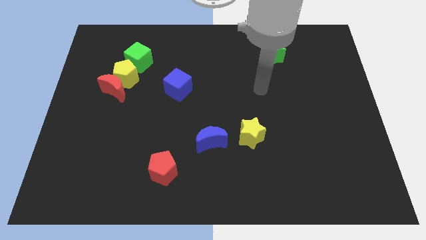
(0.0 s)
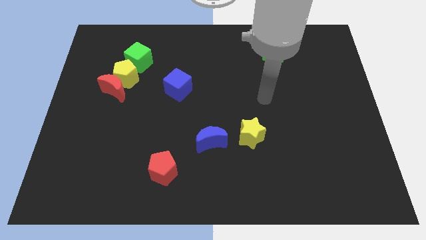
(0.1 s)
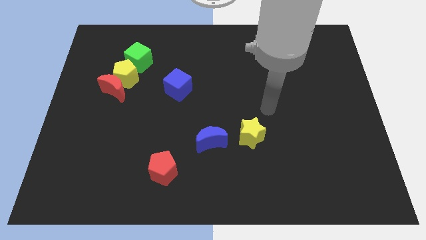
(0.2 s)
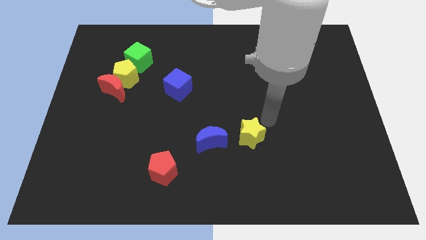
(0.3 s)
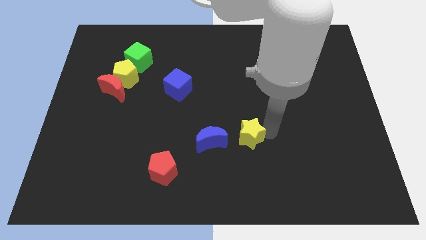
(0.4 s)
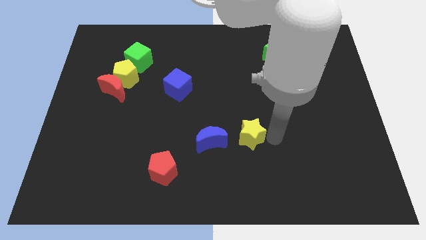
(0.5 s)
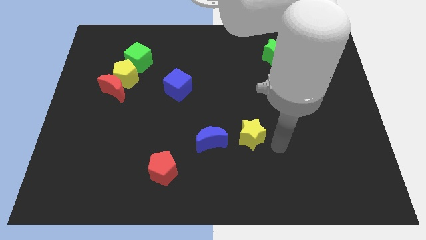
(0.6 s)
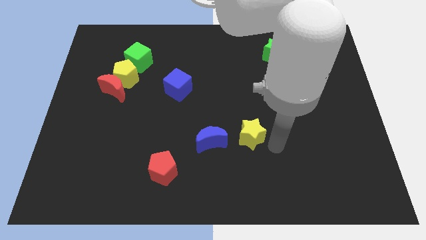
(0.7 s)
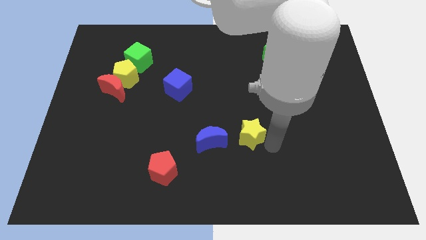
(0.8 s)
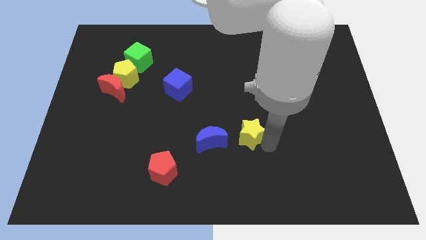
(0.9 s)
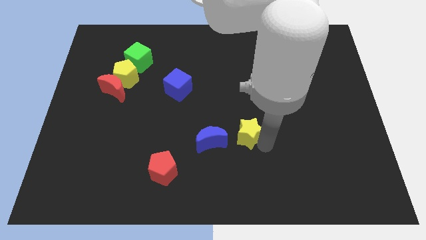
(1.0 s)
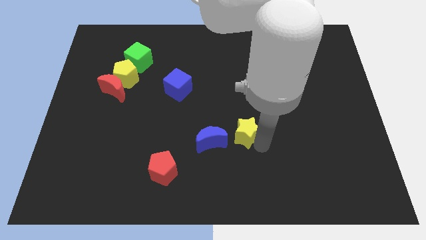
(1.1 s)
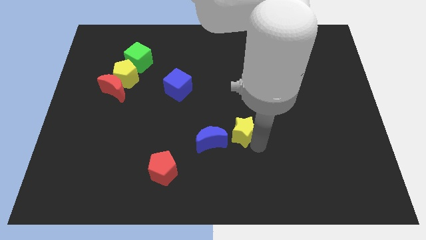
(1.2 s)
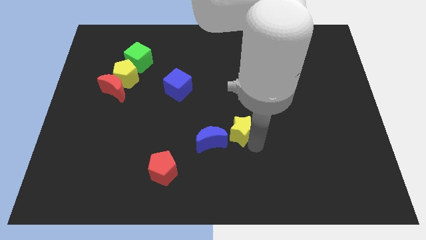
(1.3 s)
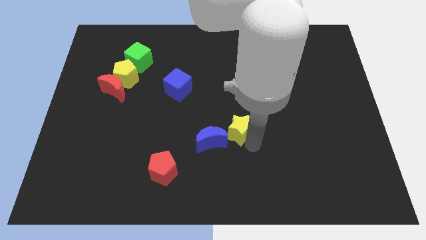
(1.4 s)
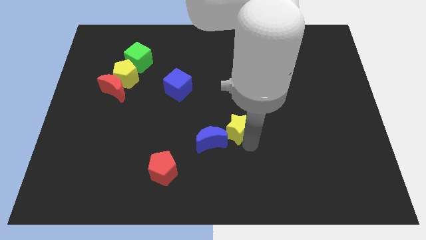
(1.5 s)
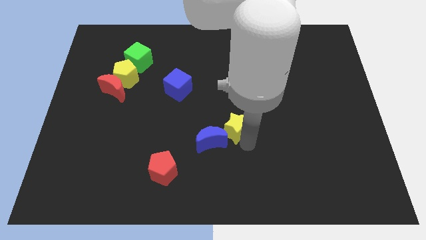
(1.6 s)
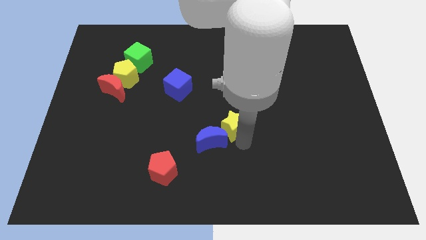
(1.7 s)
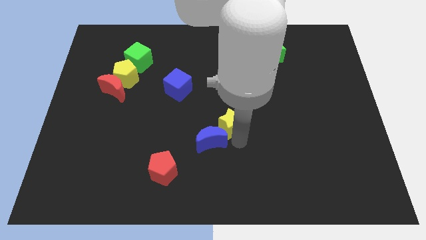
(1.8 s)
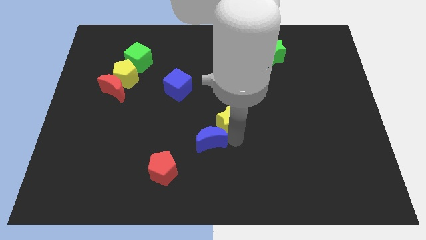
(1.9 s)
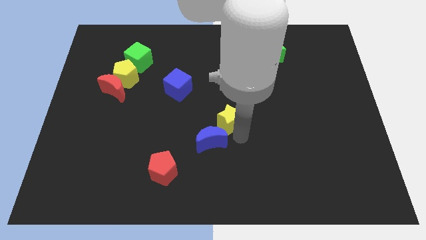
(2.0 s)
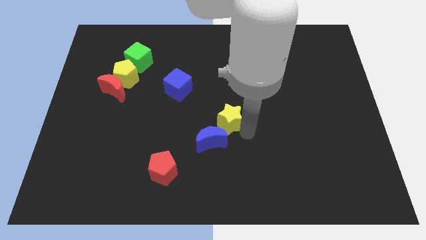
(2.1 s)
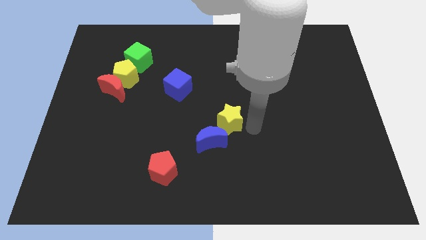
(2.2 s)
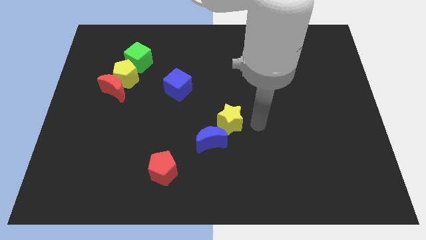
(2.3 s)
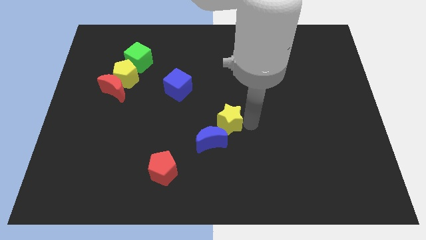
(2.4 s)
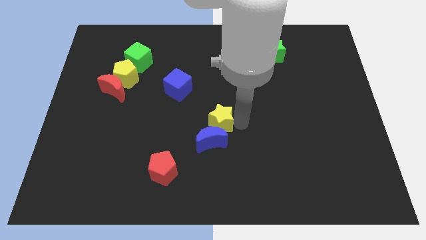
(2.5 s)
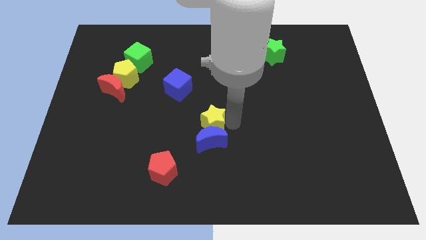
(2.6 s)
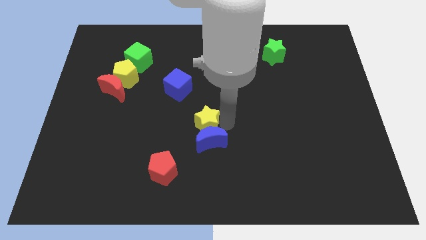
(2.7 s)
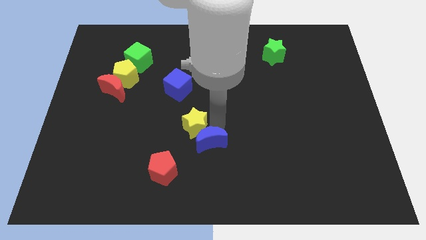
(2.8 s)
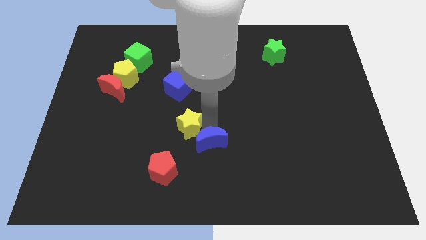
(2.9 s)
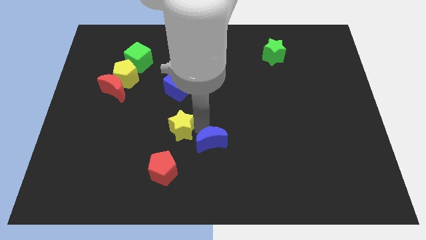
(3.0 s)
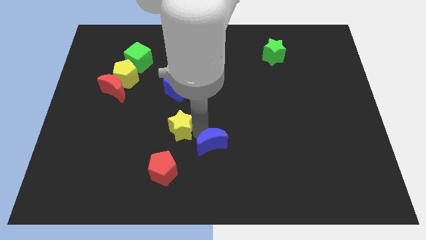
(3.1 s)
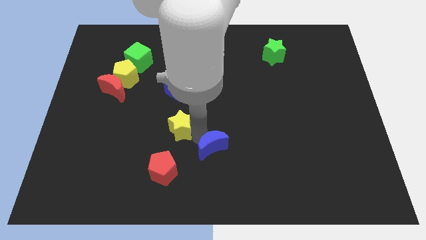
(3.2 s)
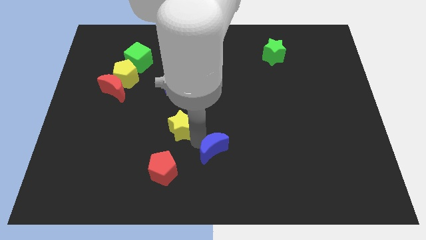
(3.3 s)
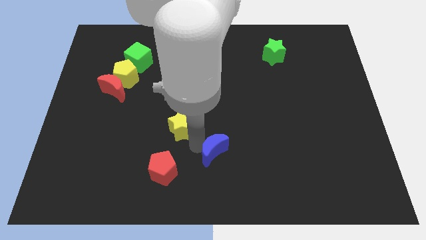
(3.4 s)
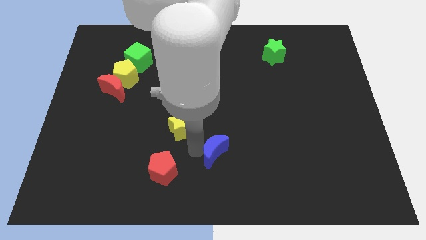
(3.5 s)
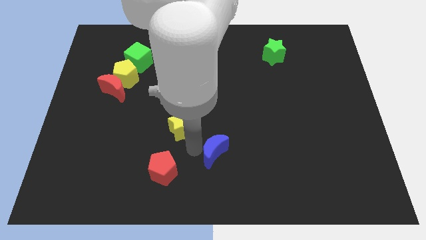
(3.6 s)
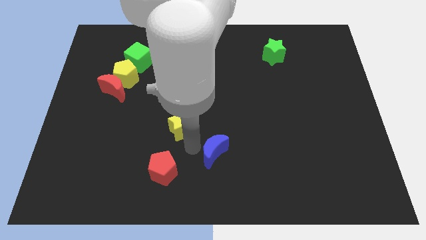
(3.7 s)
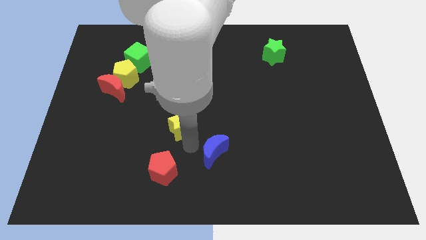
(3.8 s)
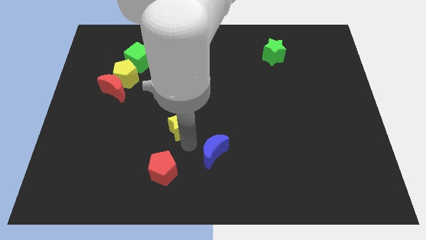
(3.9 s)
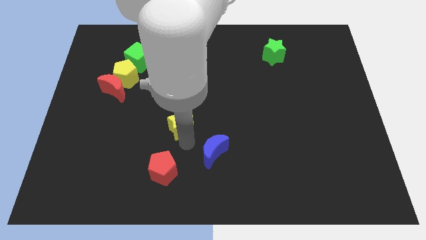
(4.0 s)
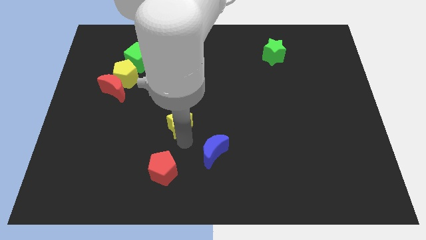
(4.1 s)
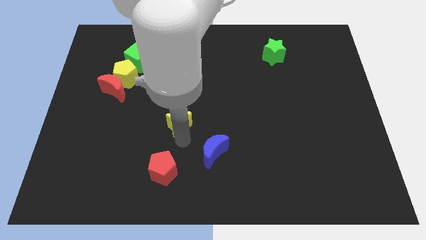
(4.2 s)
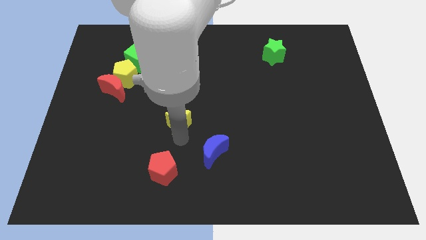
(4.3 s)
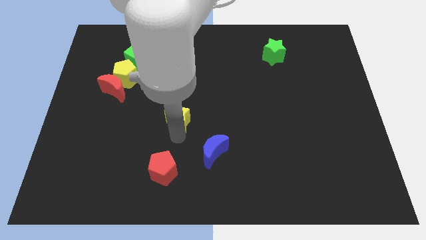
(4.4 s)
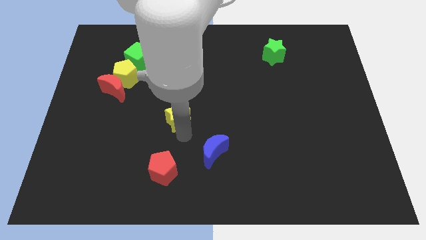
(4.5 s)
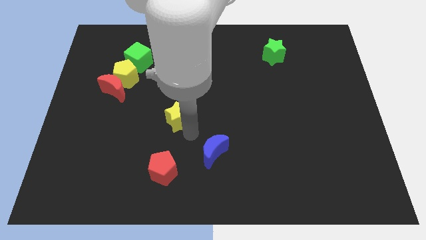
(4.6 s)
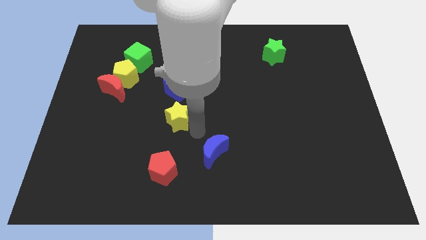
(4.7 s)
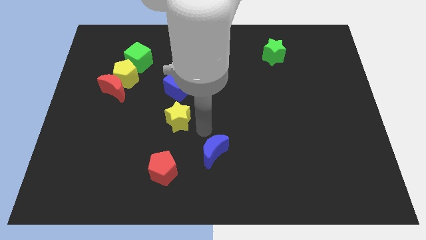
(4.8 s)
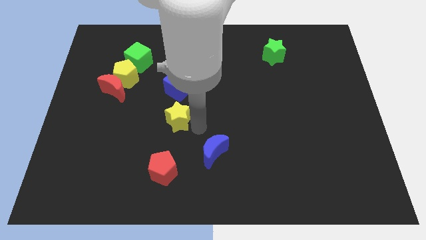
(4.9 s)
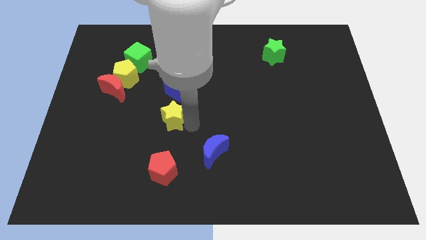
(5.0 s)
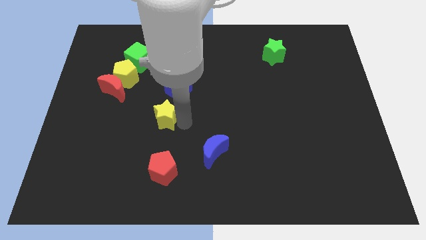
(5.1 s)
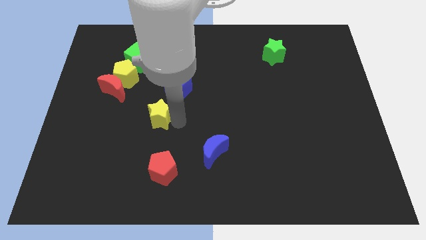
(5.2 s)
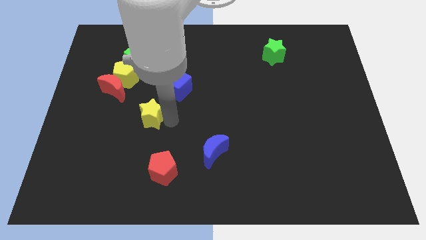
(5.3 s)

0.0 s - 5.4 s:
put the yellow star diagonally down and to the right of the red moon

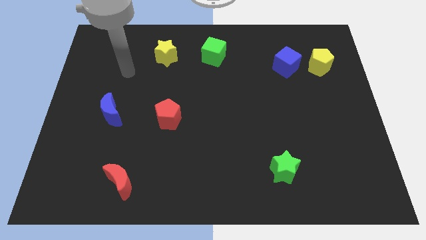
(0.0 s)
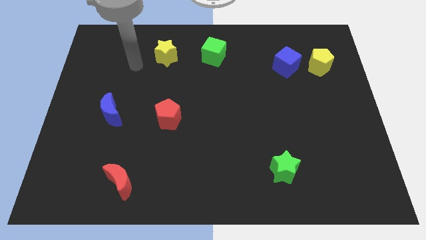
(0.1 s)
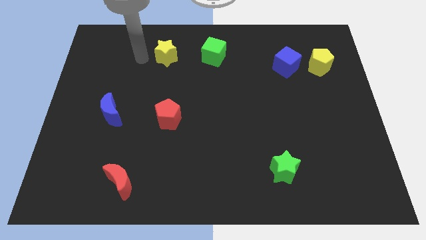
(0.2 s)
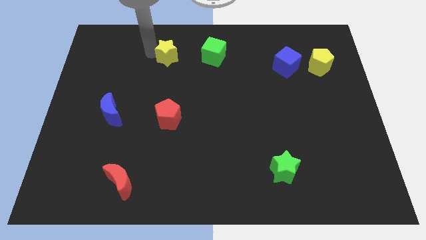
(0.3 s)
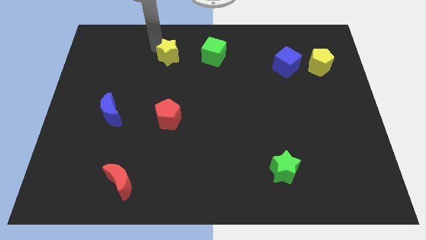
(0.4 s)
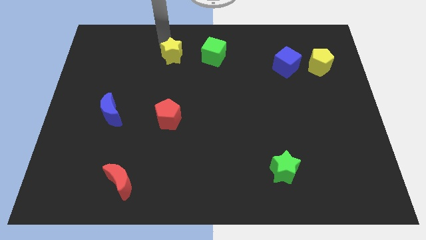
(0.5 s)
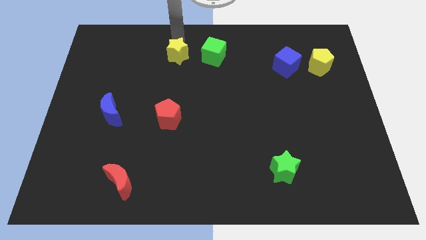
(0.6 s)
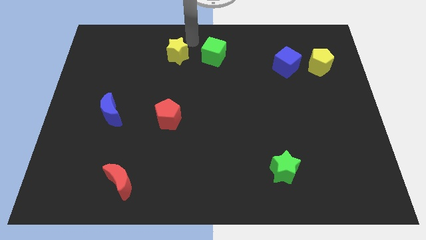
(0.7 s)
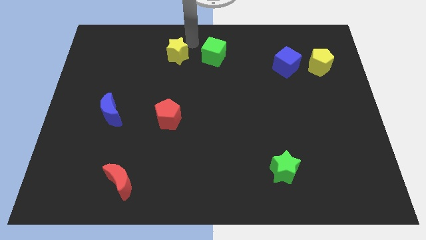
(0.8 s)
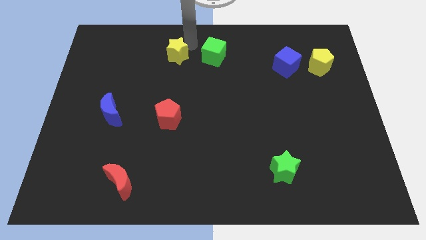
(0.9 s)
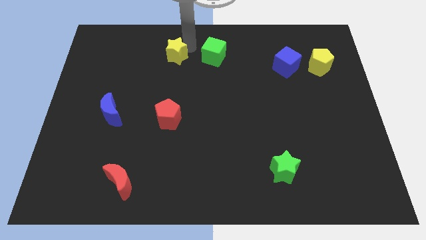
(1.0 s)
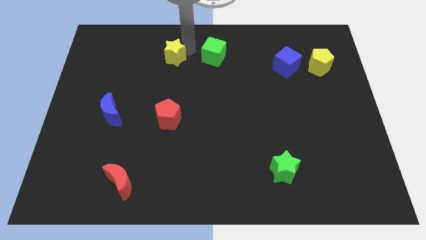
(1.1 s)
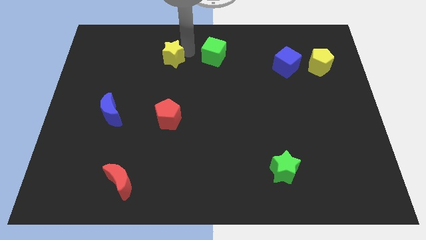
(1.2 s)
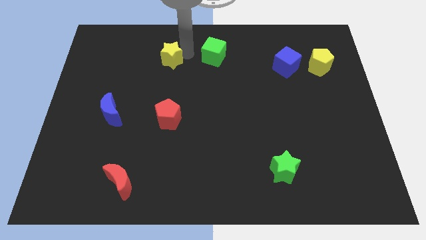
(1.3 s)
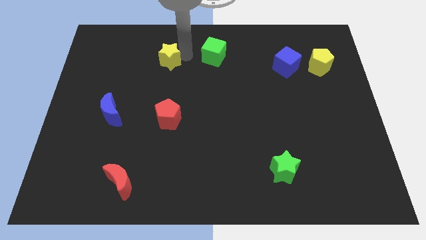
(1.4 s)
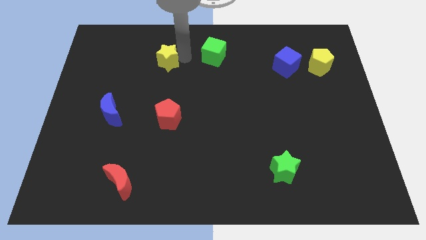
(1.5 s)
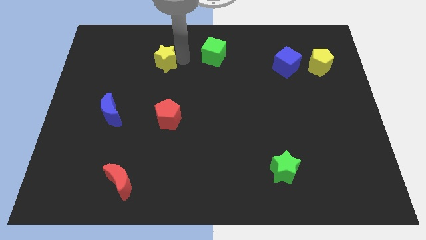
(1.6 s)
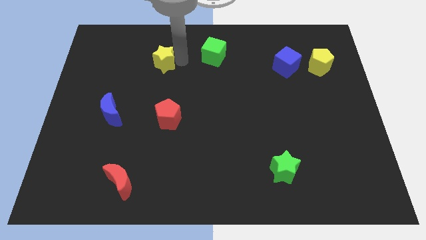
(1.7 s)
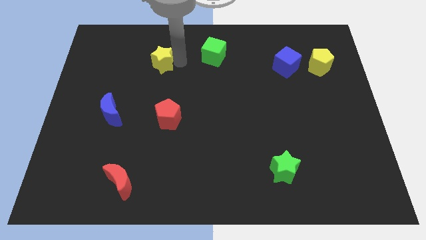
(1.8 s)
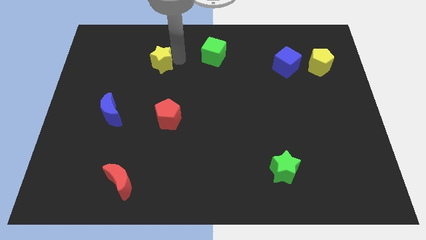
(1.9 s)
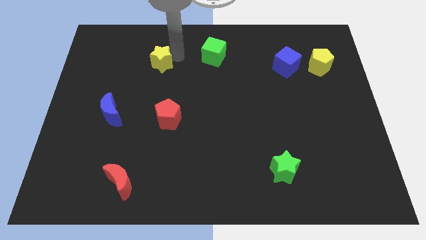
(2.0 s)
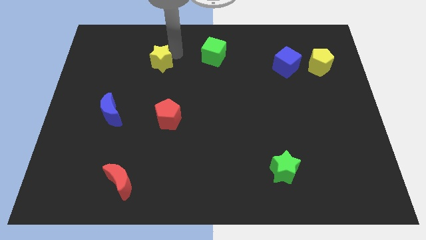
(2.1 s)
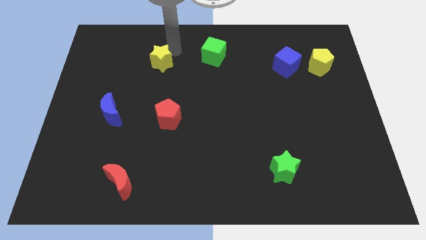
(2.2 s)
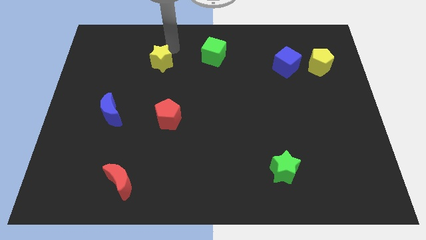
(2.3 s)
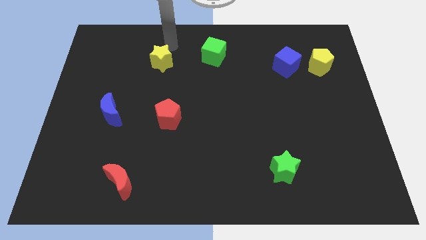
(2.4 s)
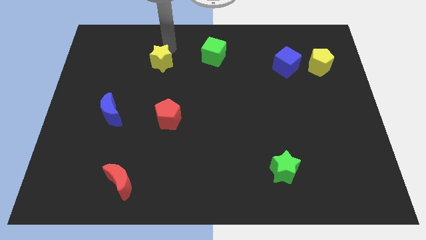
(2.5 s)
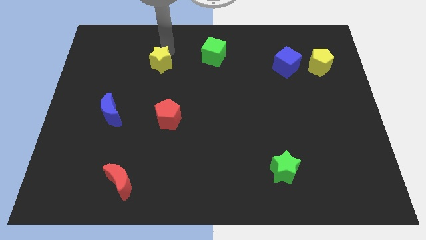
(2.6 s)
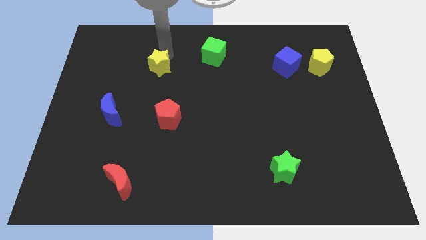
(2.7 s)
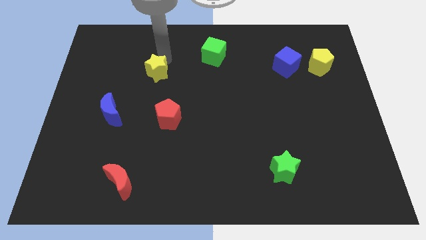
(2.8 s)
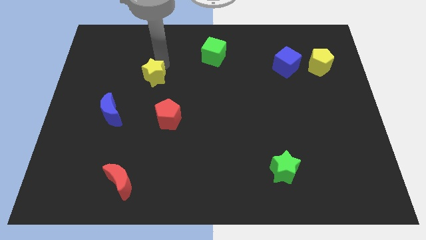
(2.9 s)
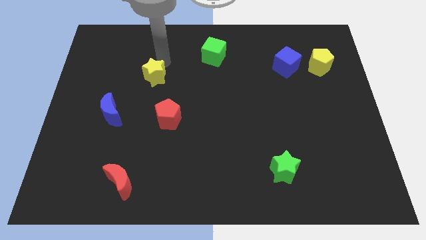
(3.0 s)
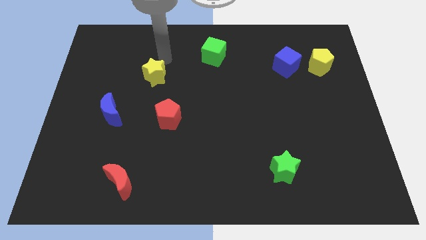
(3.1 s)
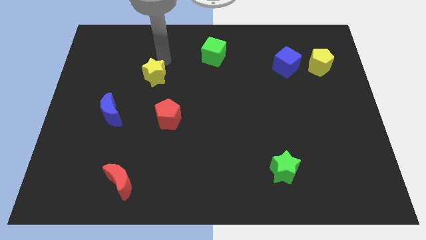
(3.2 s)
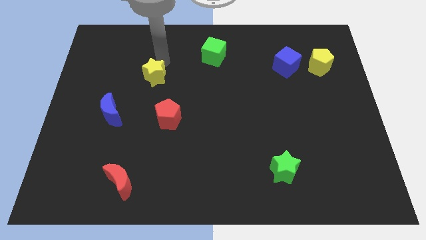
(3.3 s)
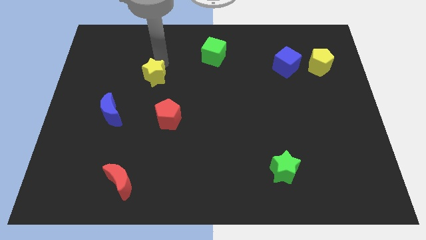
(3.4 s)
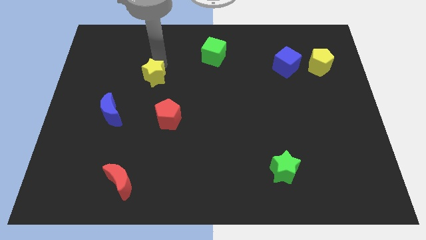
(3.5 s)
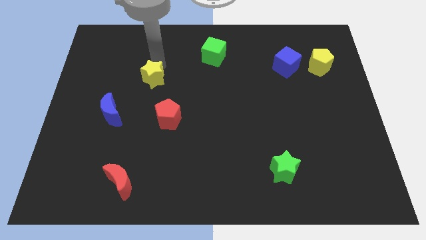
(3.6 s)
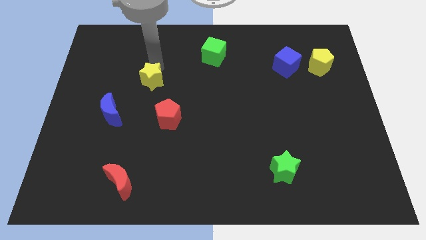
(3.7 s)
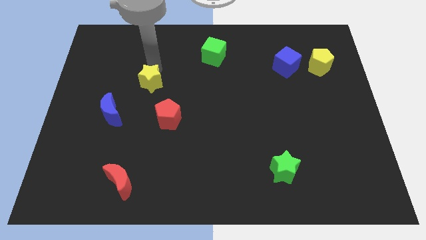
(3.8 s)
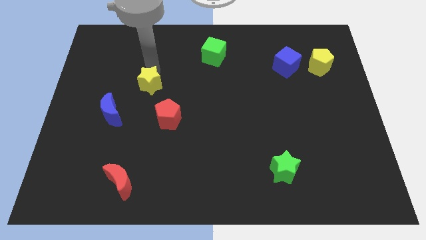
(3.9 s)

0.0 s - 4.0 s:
slide the yellow star to the top left of the red pentagon
